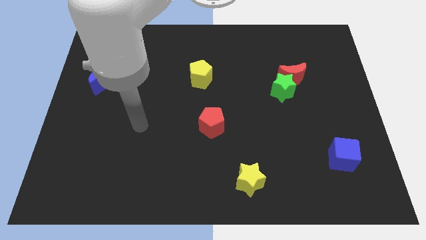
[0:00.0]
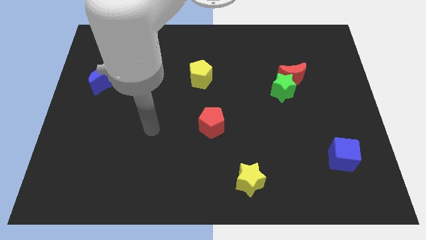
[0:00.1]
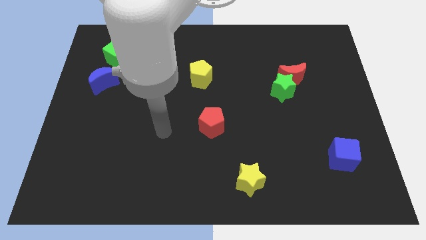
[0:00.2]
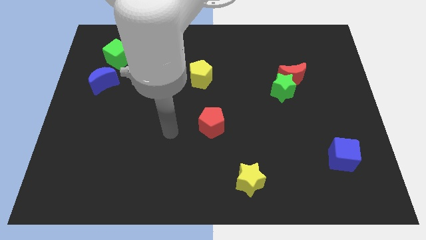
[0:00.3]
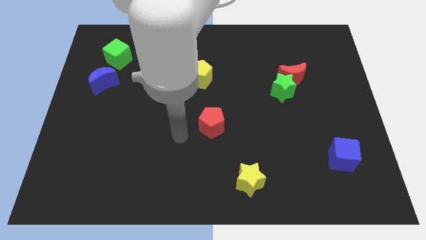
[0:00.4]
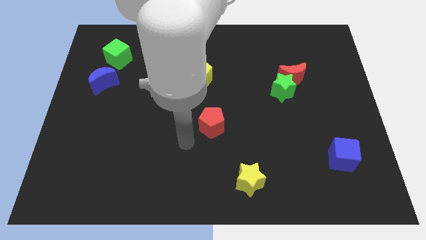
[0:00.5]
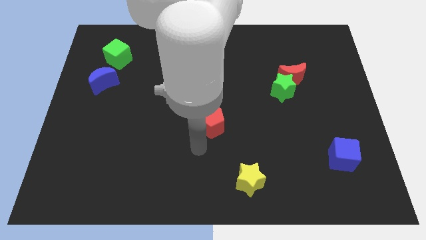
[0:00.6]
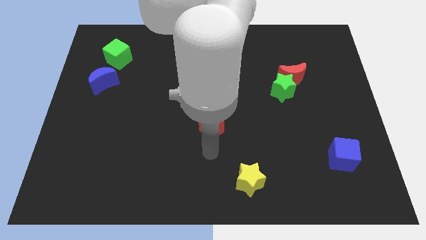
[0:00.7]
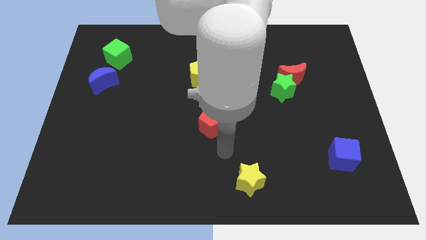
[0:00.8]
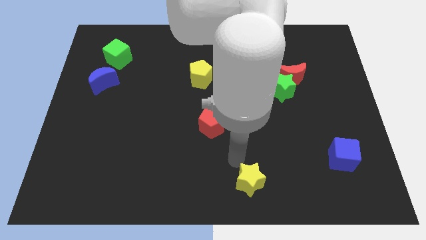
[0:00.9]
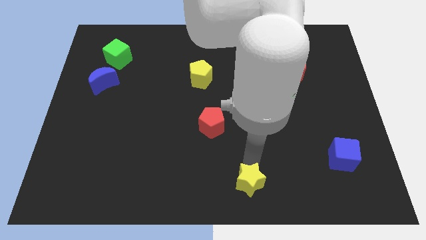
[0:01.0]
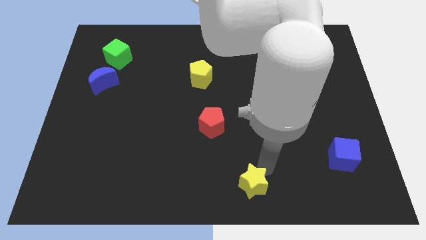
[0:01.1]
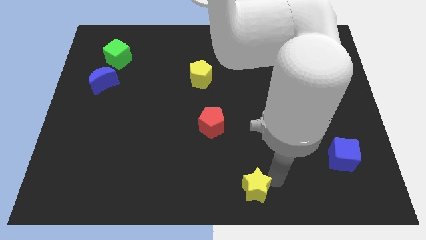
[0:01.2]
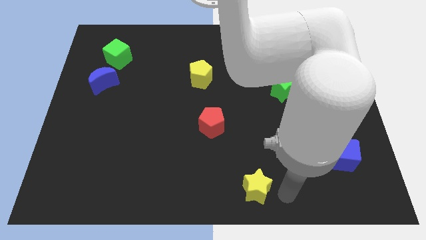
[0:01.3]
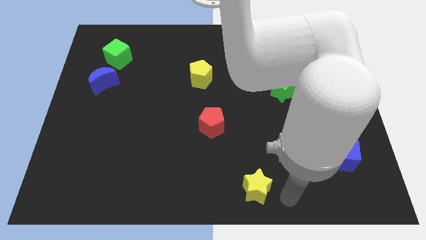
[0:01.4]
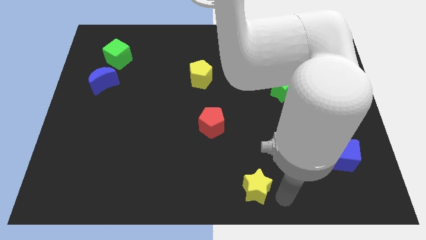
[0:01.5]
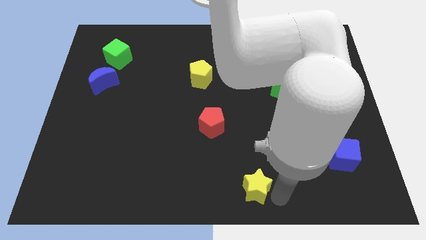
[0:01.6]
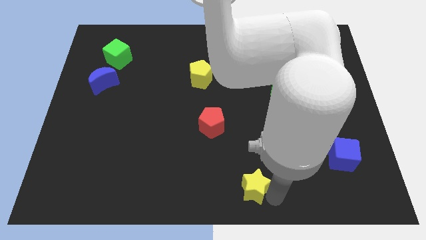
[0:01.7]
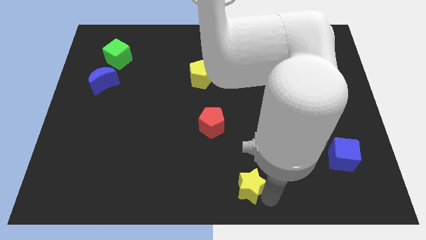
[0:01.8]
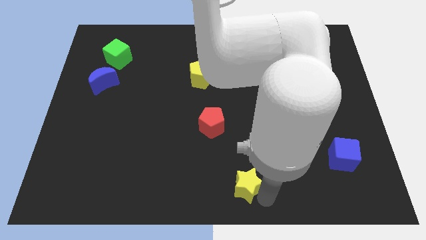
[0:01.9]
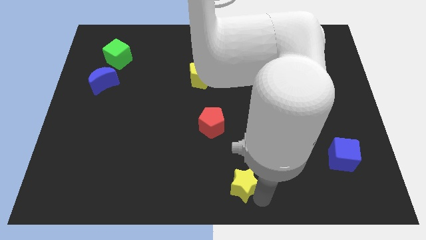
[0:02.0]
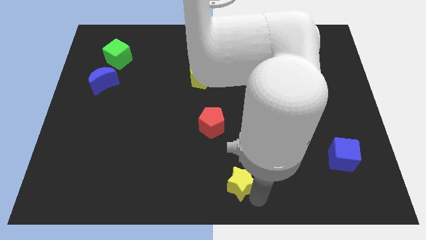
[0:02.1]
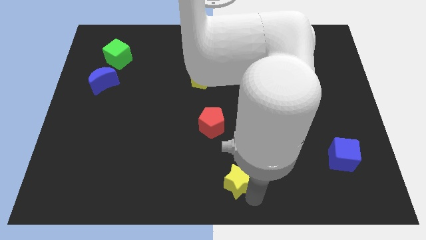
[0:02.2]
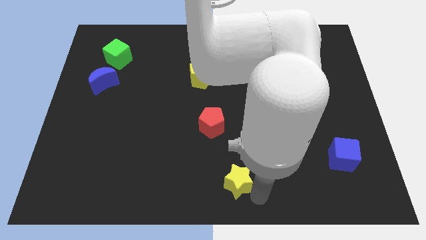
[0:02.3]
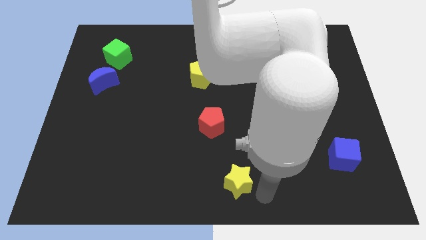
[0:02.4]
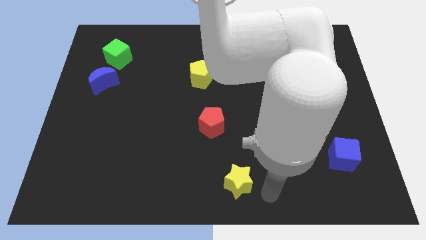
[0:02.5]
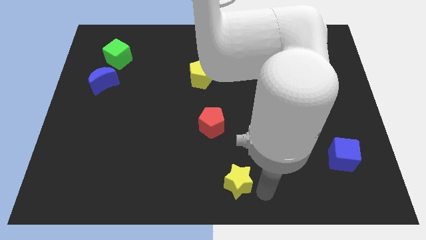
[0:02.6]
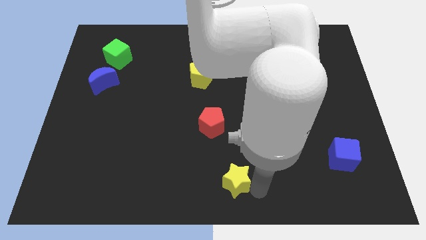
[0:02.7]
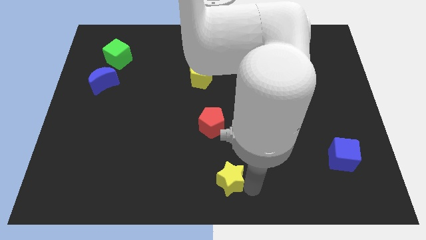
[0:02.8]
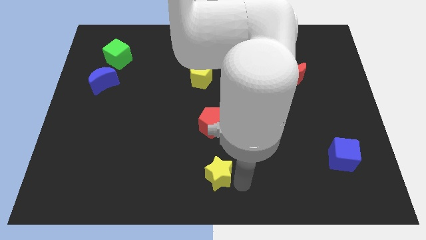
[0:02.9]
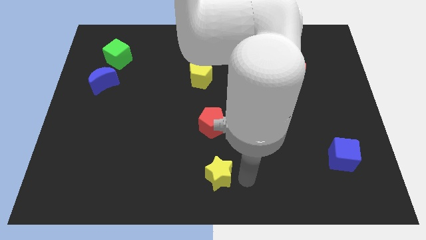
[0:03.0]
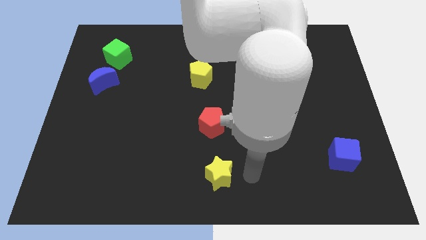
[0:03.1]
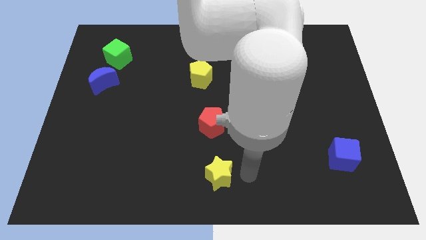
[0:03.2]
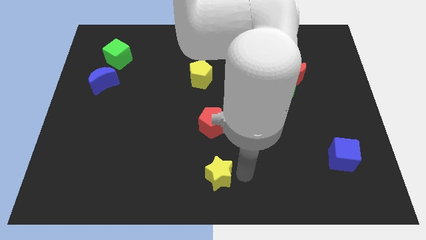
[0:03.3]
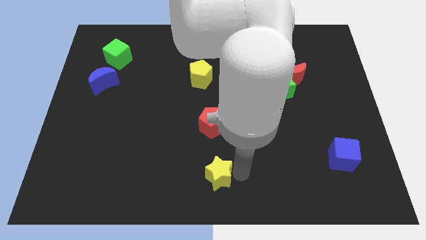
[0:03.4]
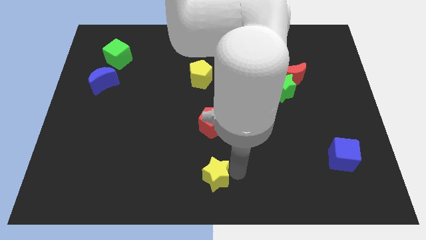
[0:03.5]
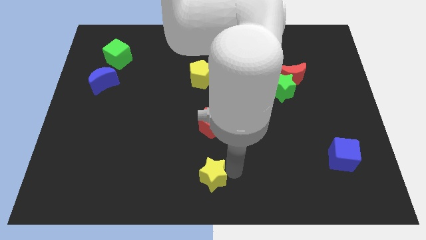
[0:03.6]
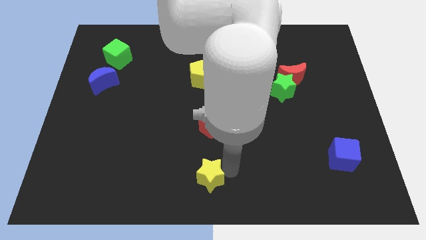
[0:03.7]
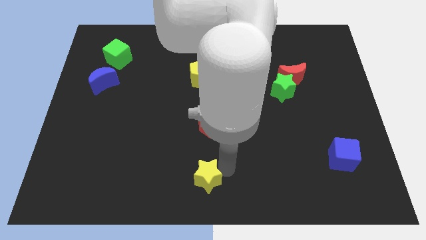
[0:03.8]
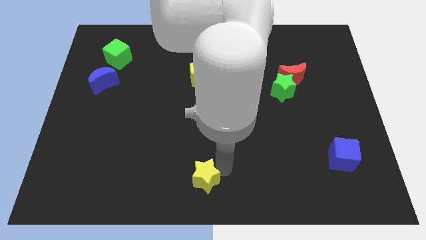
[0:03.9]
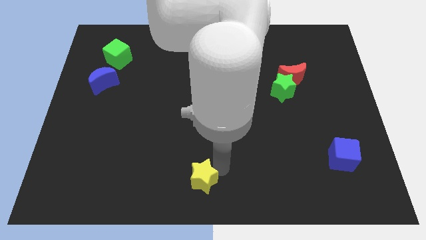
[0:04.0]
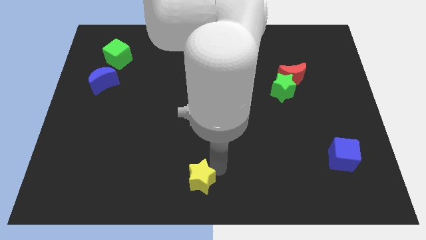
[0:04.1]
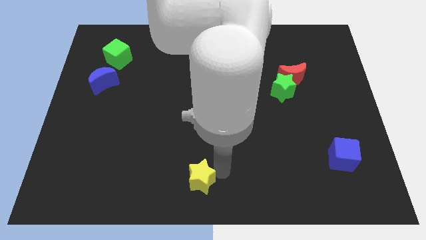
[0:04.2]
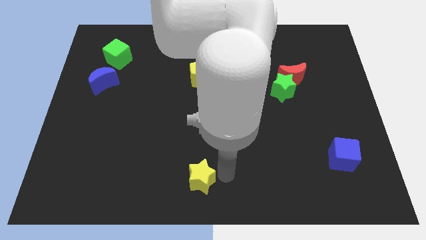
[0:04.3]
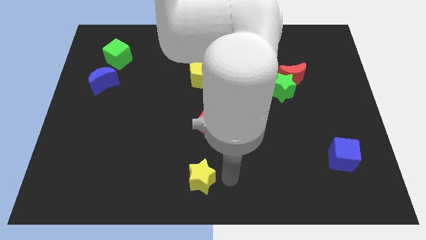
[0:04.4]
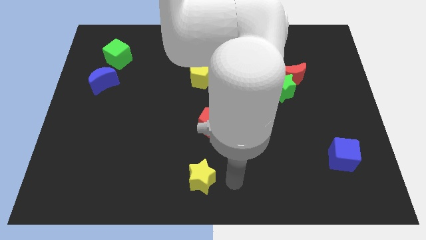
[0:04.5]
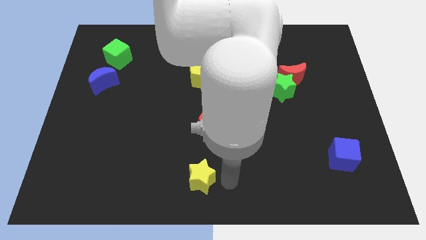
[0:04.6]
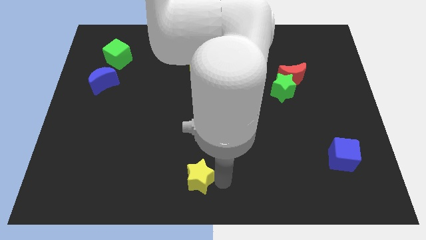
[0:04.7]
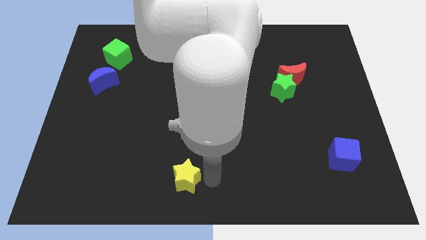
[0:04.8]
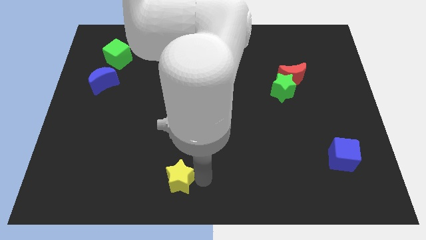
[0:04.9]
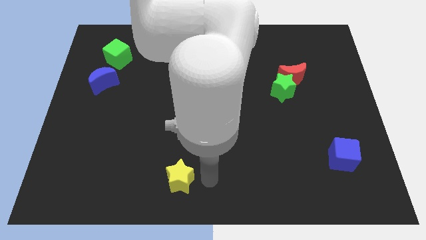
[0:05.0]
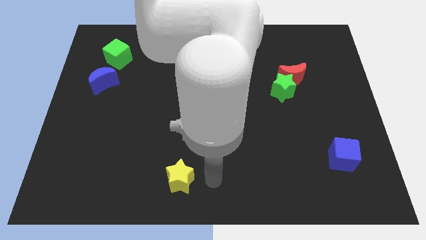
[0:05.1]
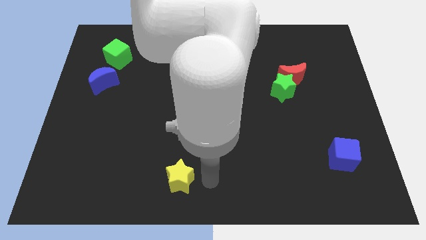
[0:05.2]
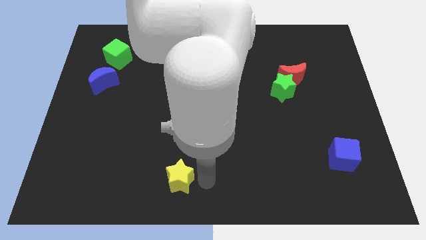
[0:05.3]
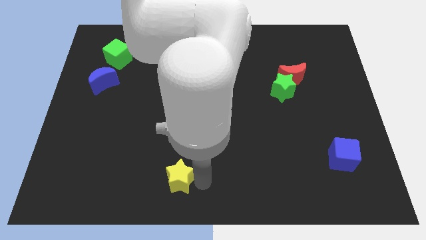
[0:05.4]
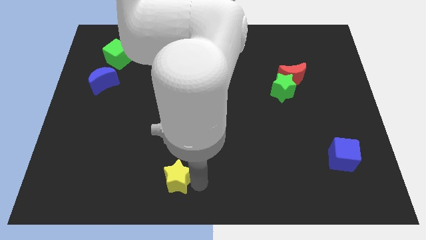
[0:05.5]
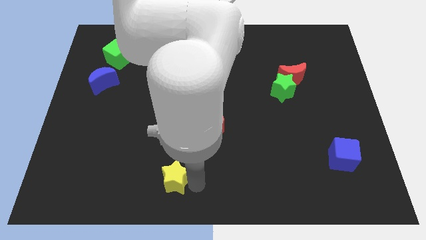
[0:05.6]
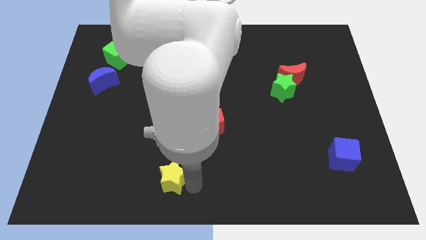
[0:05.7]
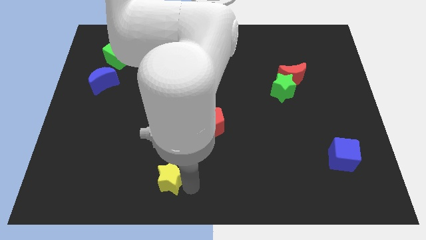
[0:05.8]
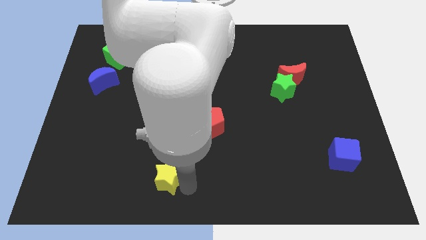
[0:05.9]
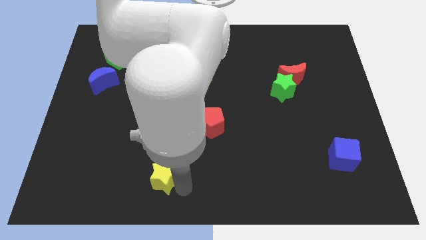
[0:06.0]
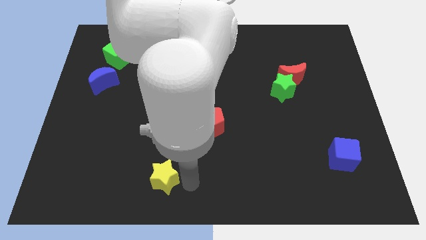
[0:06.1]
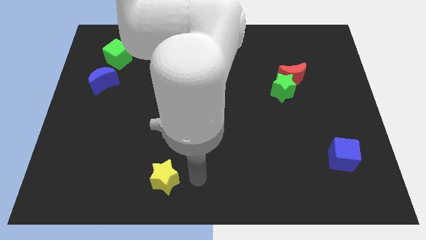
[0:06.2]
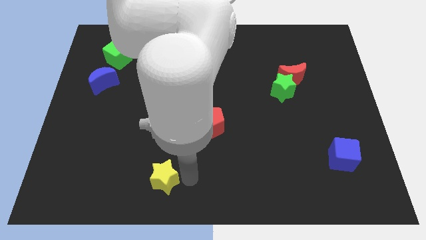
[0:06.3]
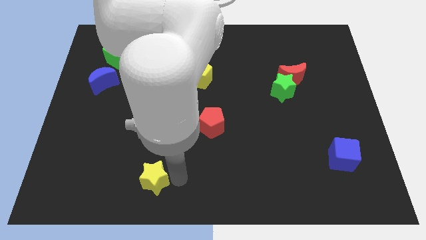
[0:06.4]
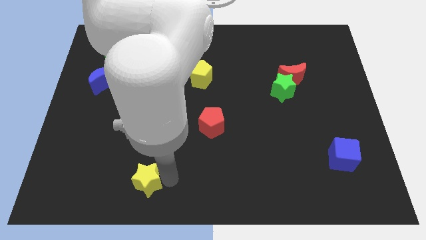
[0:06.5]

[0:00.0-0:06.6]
move the yellow star left

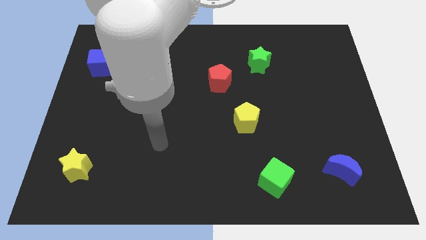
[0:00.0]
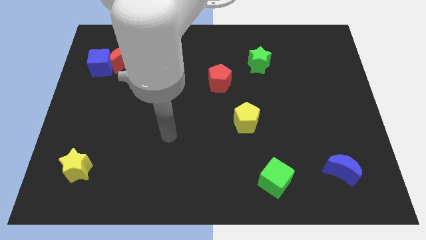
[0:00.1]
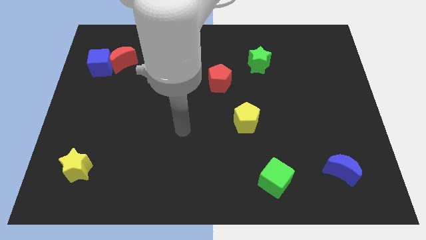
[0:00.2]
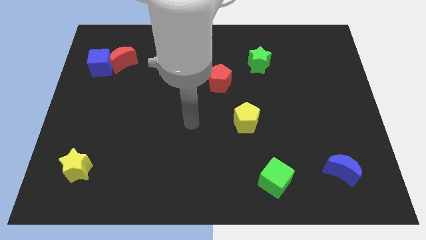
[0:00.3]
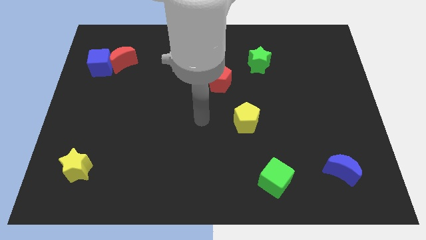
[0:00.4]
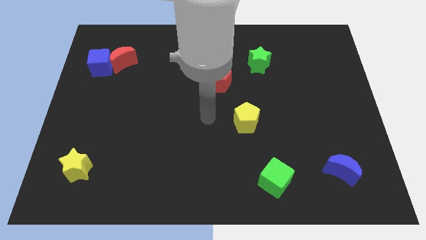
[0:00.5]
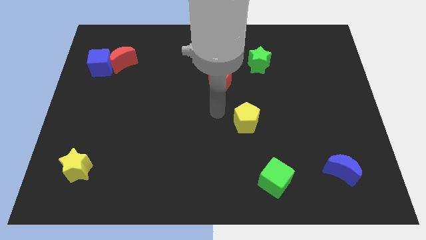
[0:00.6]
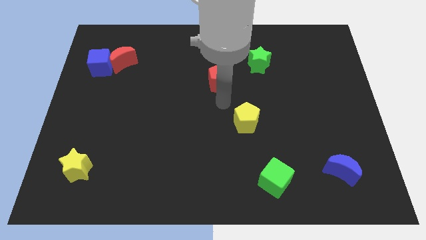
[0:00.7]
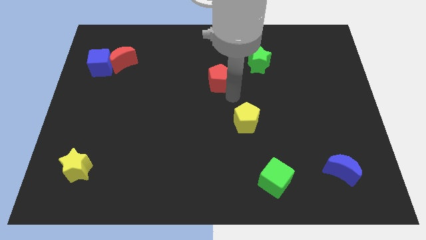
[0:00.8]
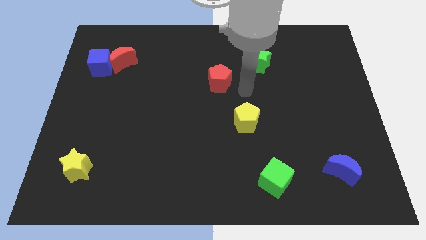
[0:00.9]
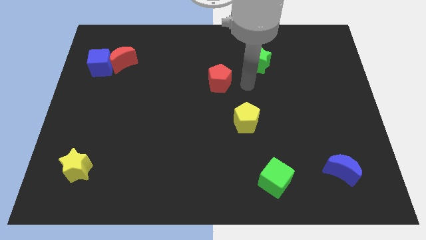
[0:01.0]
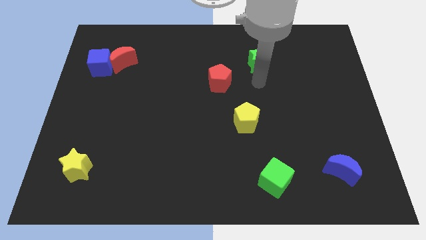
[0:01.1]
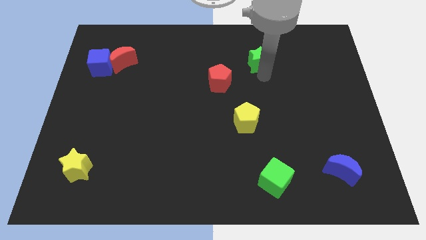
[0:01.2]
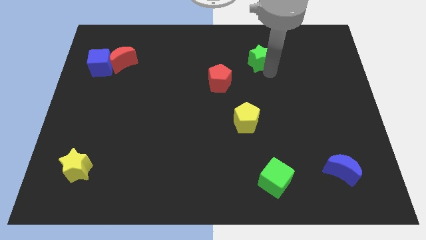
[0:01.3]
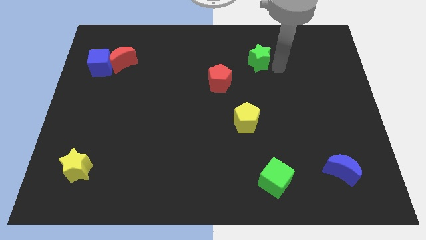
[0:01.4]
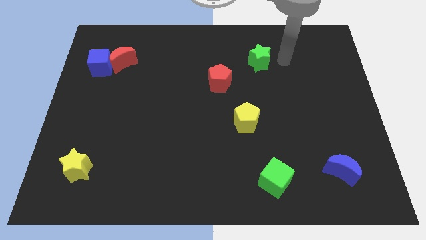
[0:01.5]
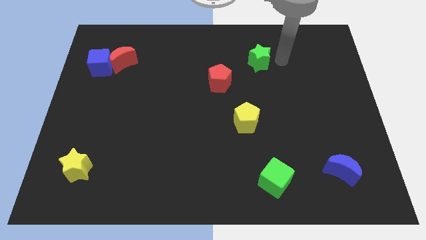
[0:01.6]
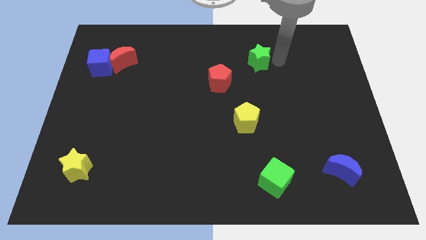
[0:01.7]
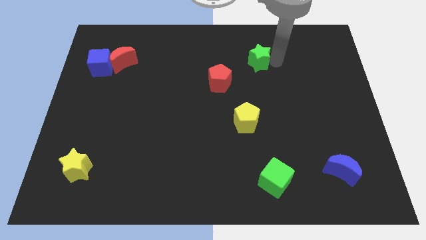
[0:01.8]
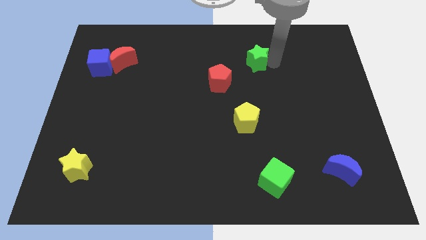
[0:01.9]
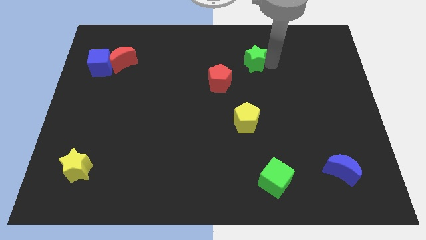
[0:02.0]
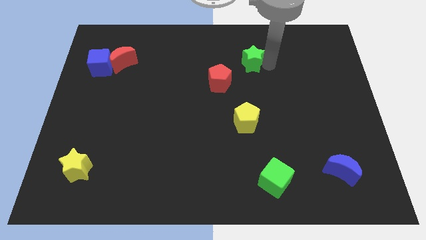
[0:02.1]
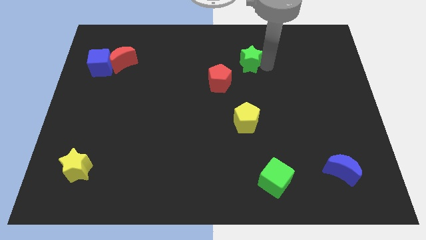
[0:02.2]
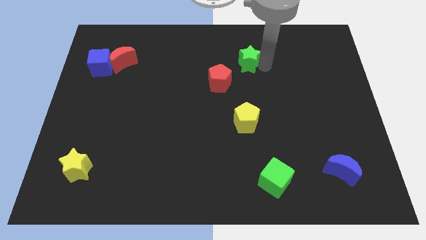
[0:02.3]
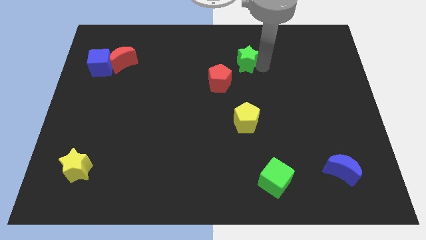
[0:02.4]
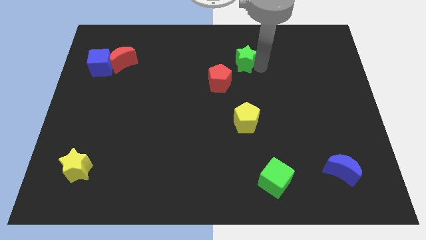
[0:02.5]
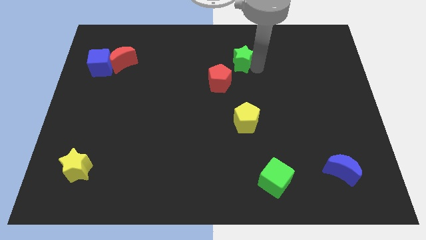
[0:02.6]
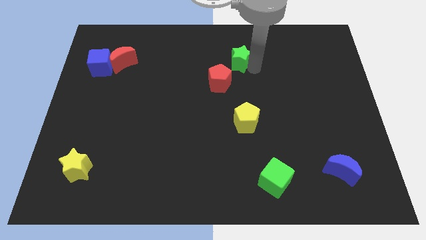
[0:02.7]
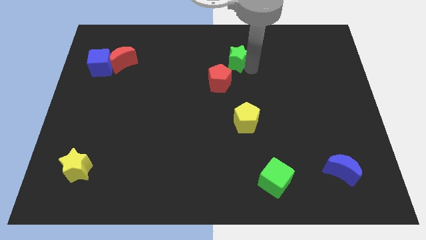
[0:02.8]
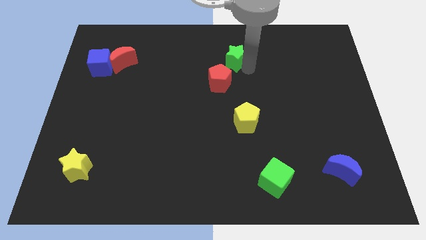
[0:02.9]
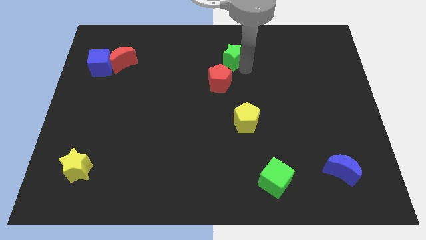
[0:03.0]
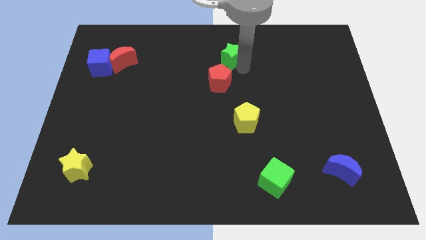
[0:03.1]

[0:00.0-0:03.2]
slightly slide the green star to the left
